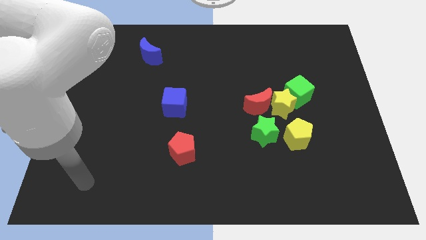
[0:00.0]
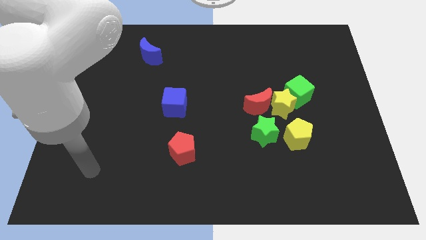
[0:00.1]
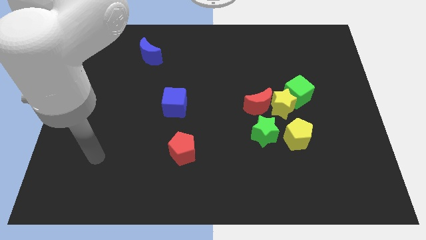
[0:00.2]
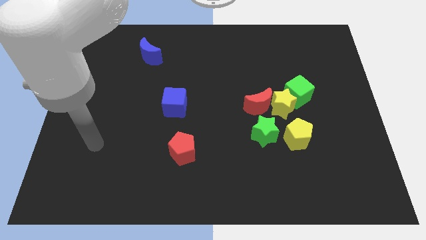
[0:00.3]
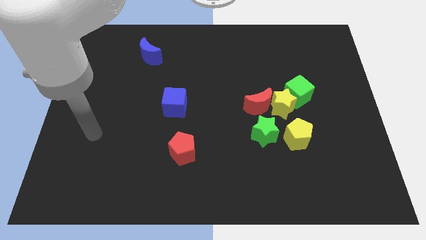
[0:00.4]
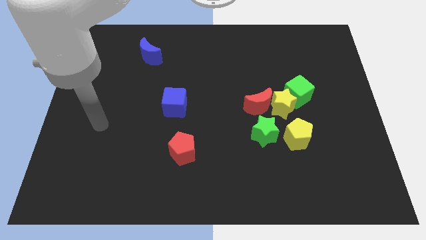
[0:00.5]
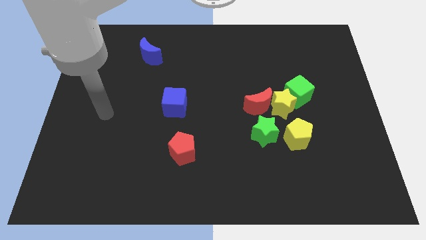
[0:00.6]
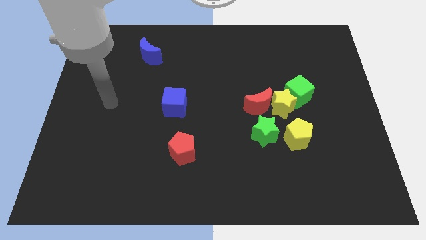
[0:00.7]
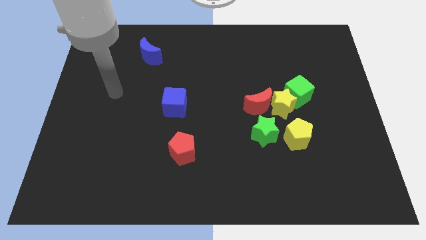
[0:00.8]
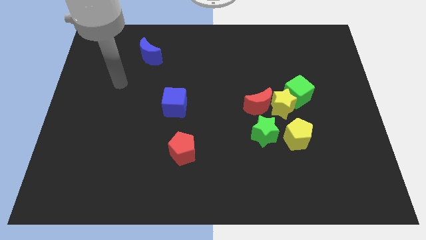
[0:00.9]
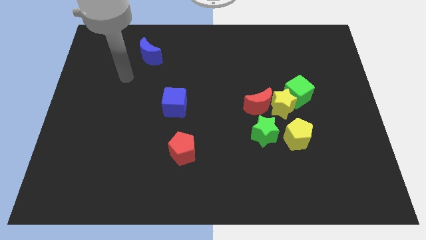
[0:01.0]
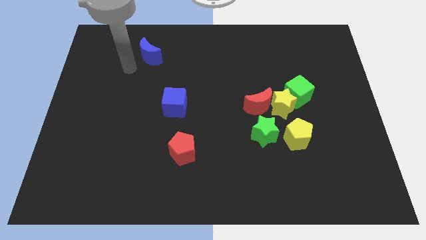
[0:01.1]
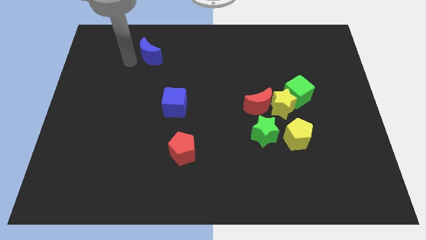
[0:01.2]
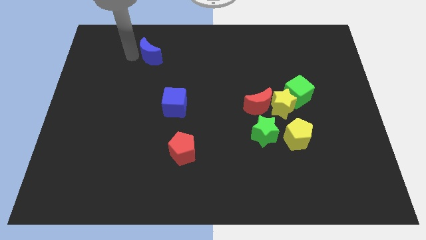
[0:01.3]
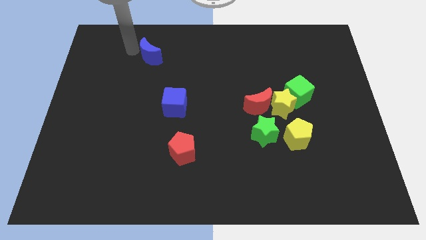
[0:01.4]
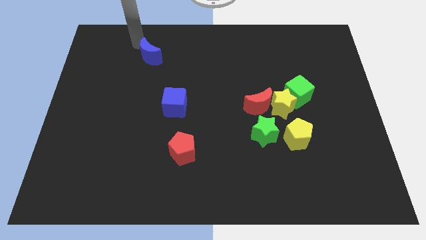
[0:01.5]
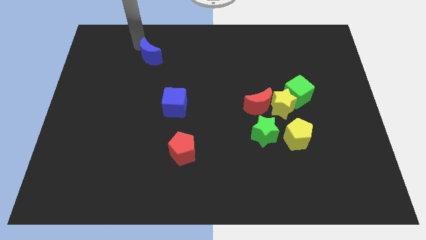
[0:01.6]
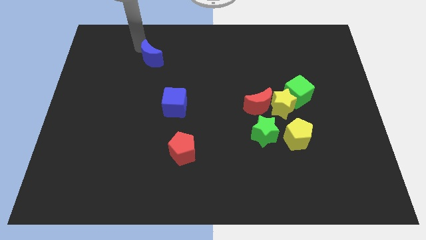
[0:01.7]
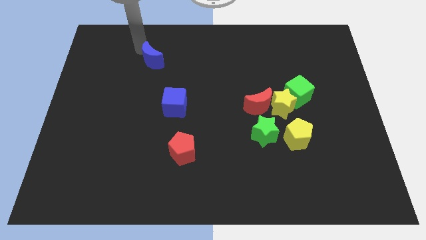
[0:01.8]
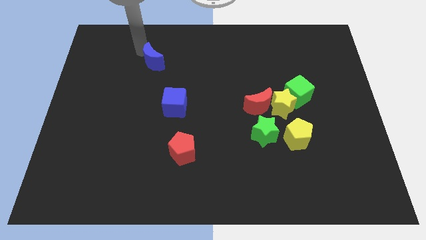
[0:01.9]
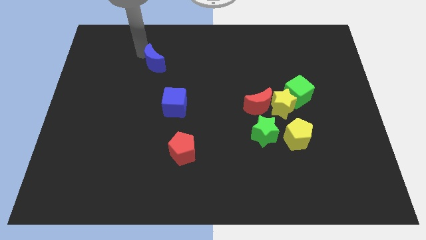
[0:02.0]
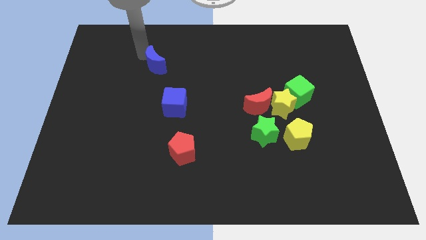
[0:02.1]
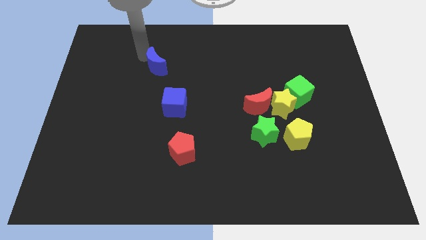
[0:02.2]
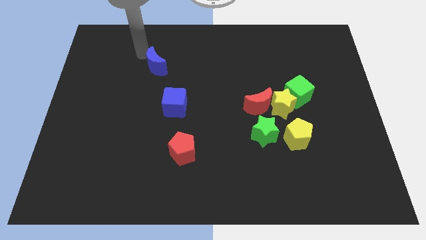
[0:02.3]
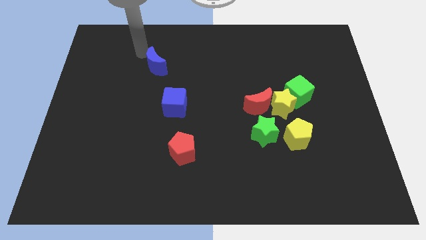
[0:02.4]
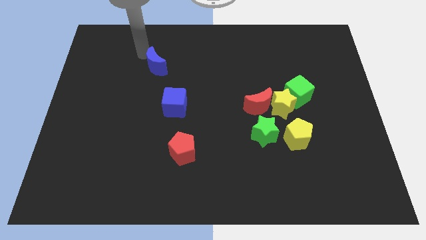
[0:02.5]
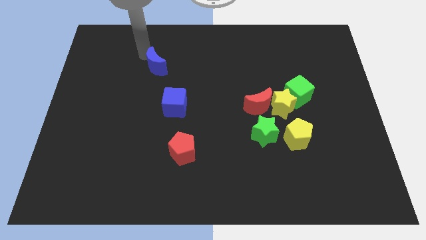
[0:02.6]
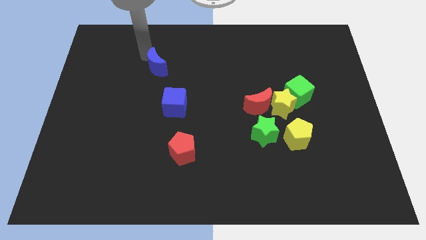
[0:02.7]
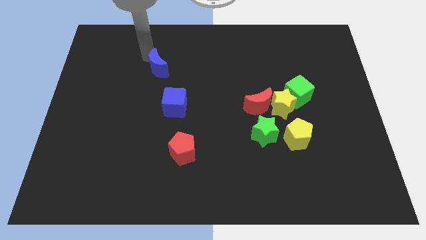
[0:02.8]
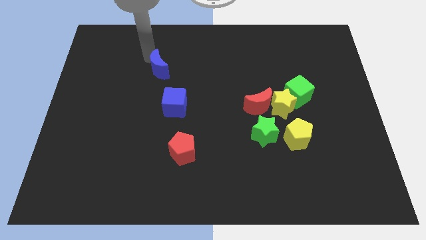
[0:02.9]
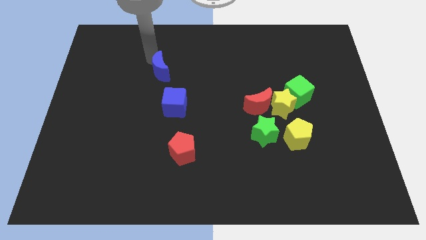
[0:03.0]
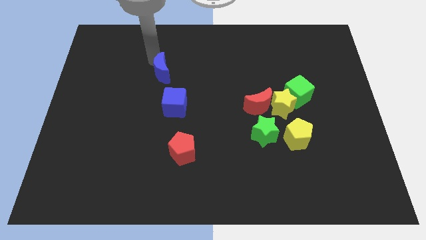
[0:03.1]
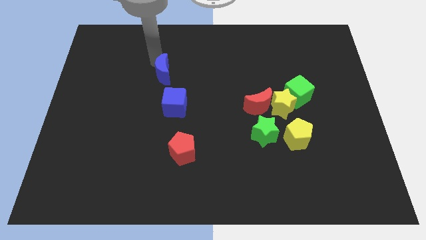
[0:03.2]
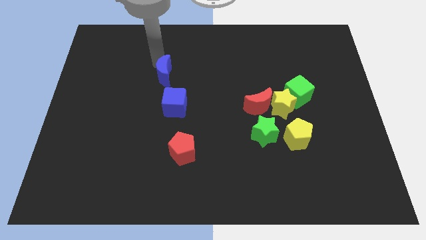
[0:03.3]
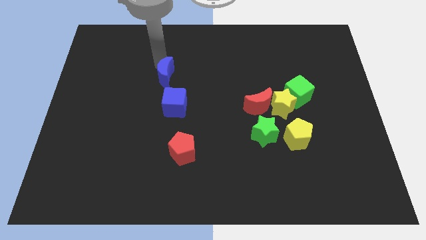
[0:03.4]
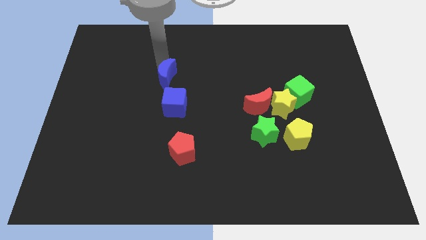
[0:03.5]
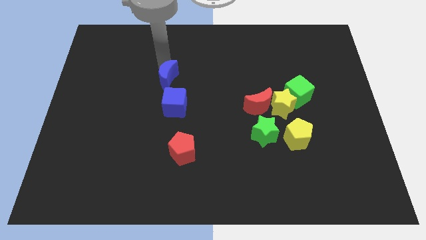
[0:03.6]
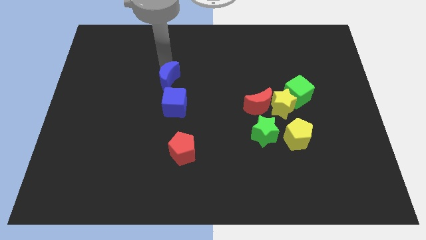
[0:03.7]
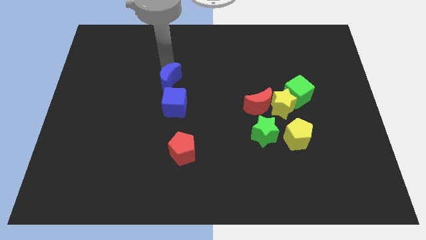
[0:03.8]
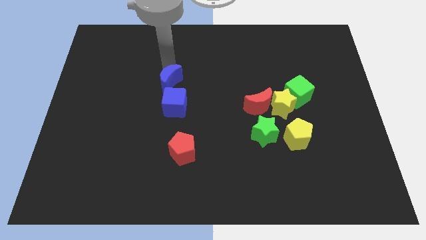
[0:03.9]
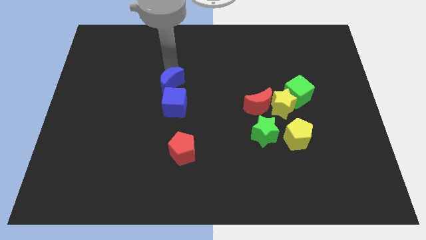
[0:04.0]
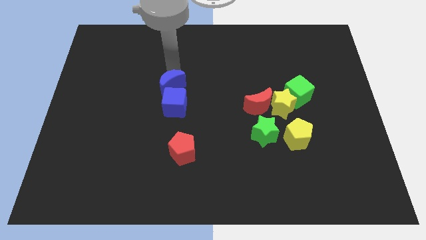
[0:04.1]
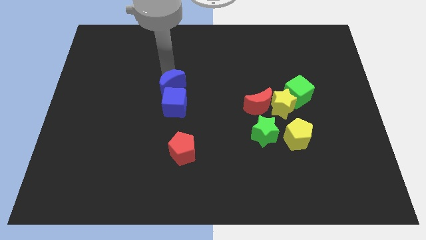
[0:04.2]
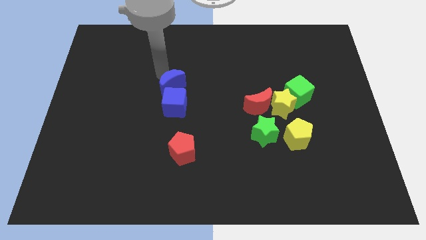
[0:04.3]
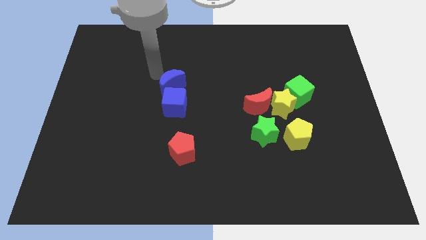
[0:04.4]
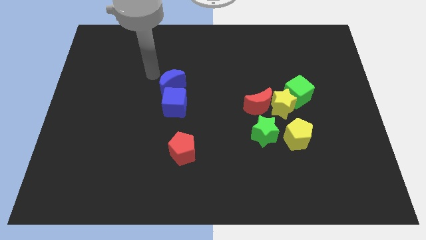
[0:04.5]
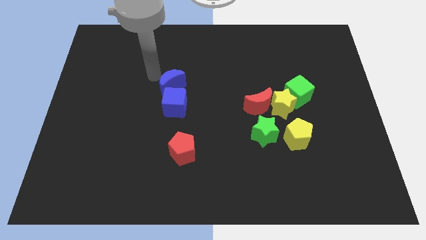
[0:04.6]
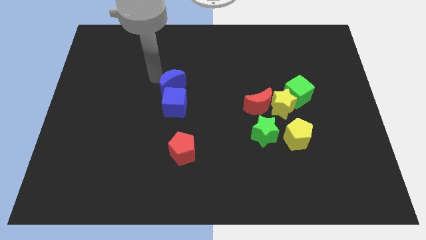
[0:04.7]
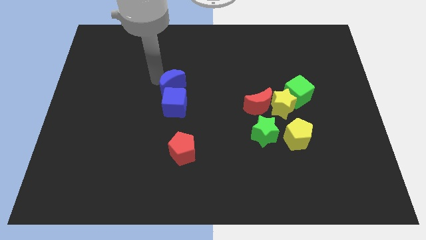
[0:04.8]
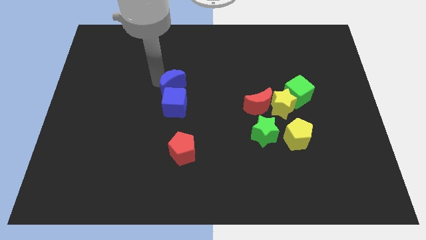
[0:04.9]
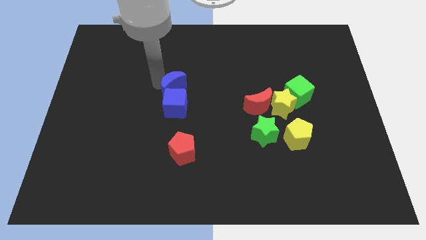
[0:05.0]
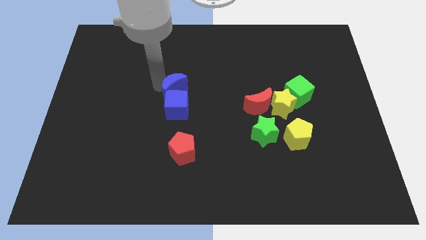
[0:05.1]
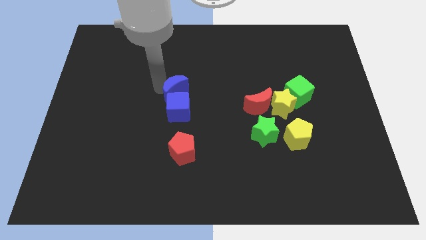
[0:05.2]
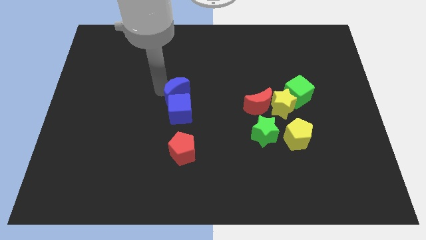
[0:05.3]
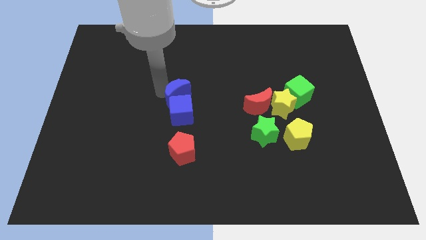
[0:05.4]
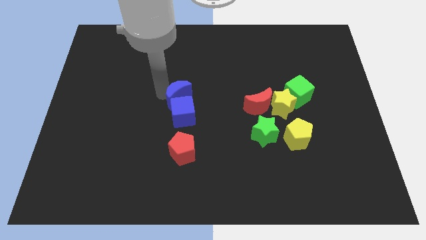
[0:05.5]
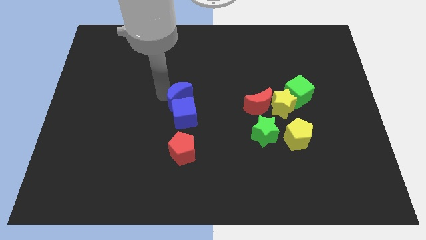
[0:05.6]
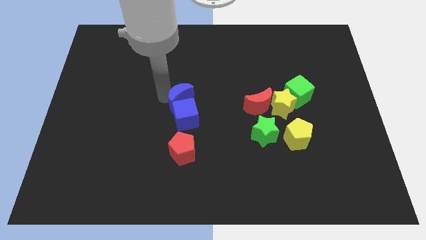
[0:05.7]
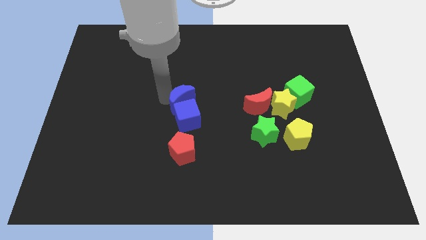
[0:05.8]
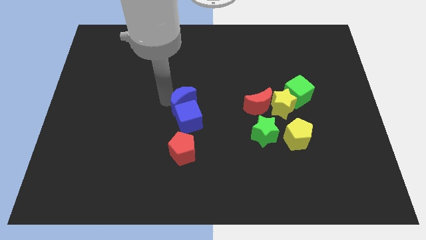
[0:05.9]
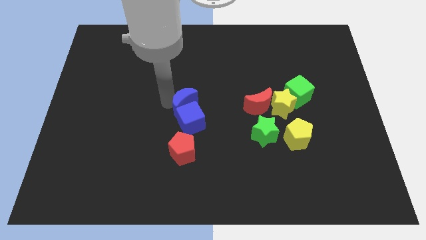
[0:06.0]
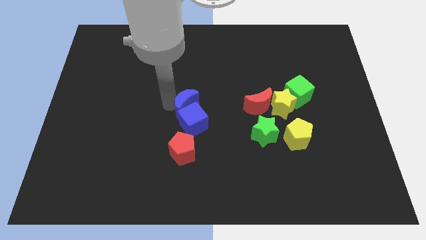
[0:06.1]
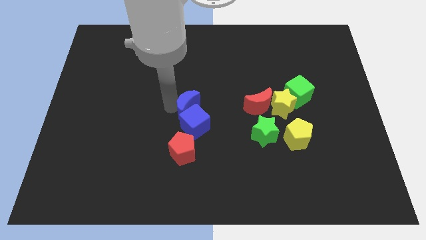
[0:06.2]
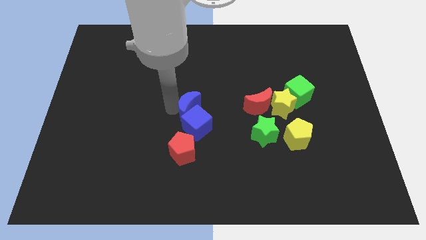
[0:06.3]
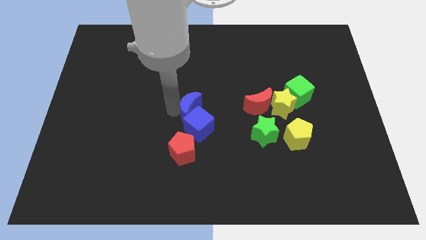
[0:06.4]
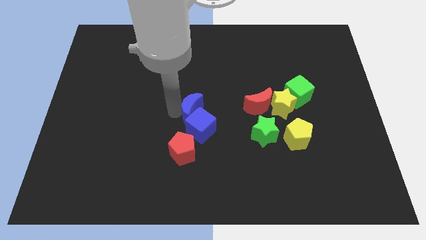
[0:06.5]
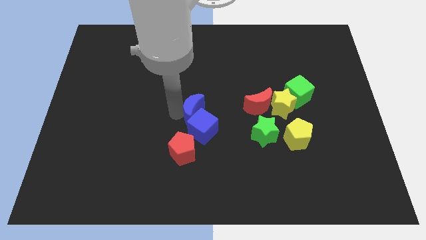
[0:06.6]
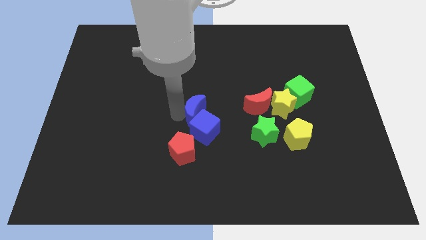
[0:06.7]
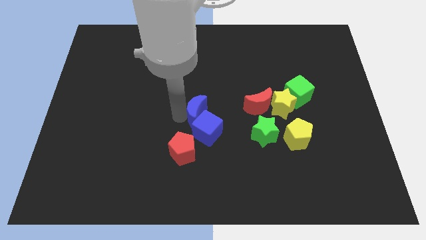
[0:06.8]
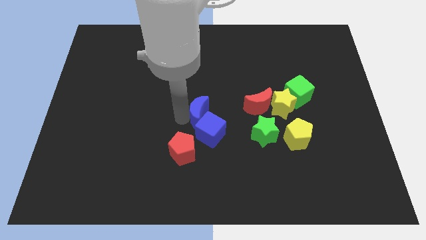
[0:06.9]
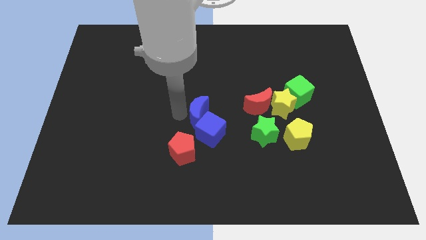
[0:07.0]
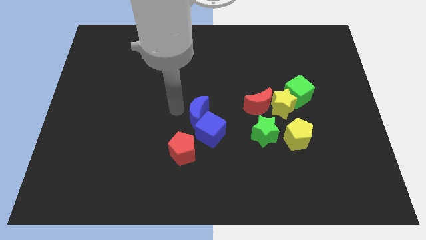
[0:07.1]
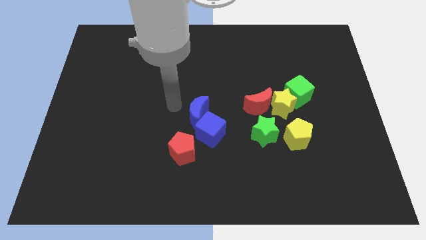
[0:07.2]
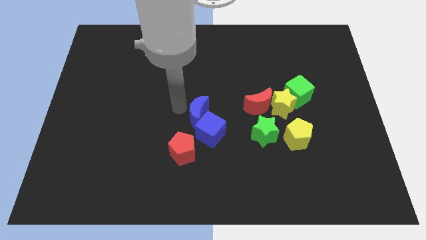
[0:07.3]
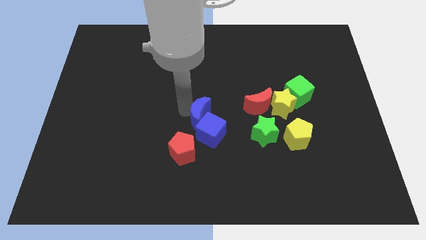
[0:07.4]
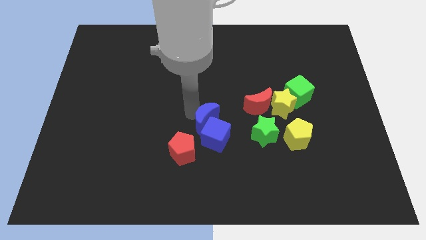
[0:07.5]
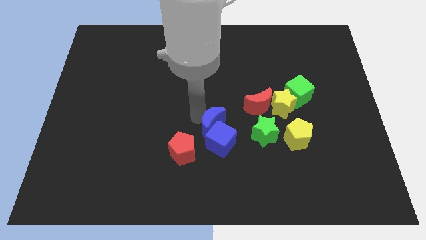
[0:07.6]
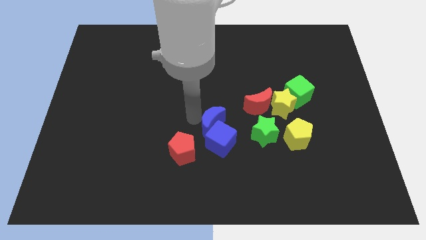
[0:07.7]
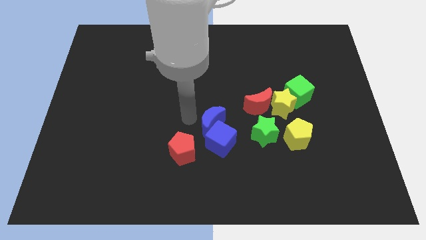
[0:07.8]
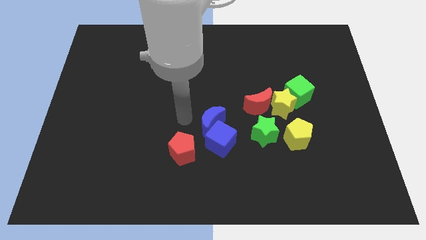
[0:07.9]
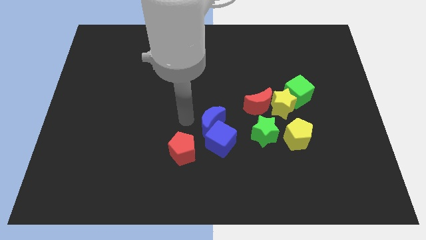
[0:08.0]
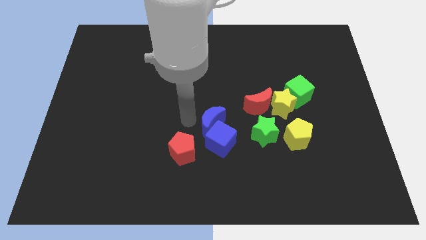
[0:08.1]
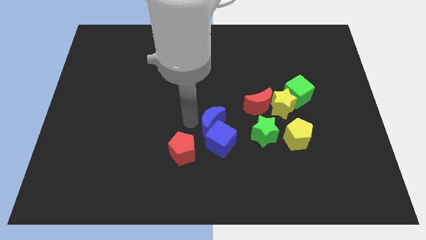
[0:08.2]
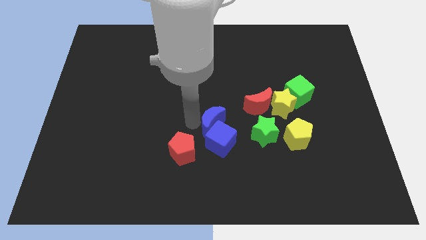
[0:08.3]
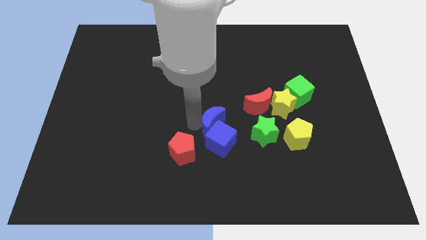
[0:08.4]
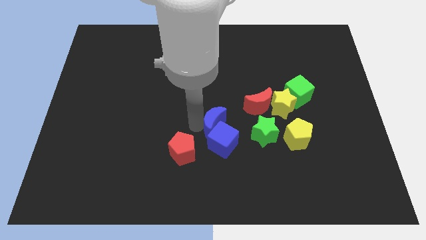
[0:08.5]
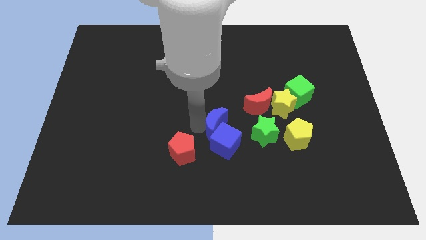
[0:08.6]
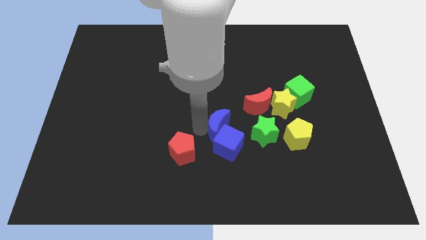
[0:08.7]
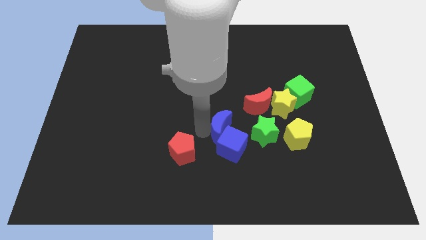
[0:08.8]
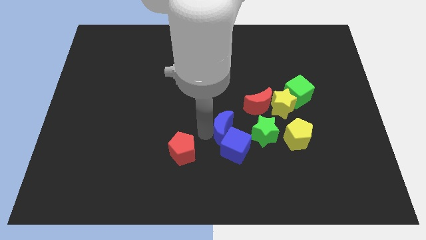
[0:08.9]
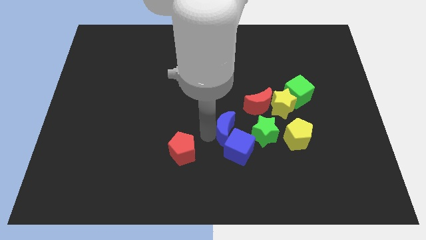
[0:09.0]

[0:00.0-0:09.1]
move the blue moon left of the yellow pentagon
